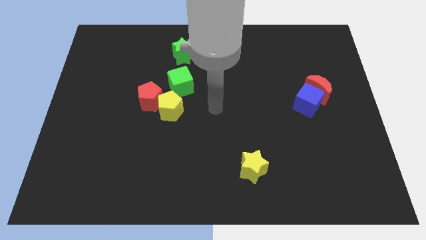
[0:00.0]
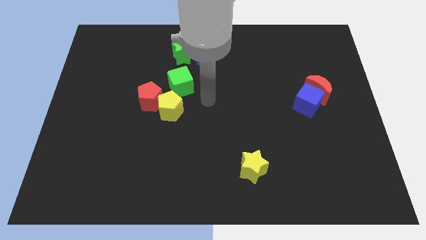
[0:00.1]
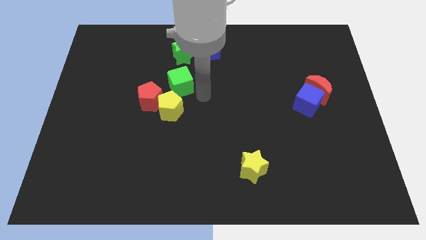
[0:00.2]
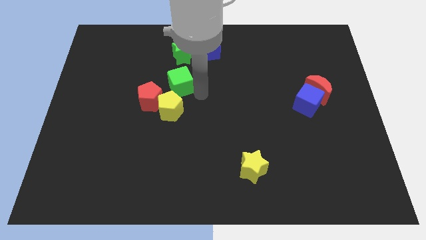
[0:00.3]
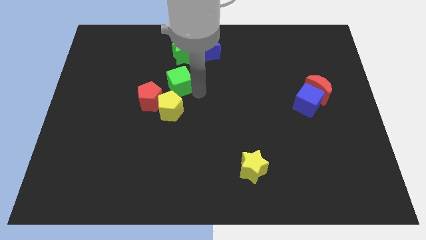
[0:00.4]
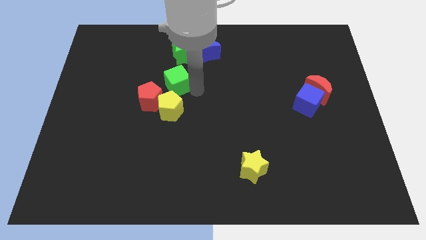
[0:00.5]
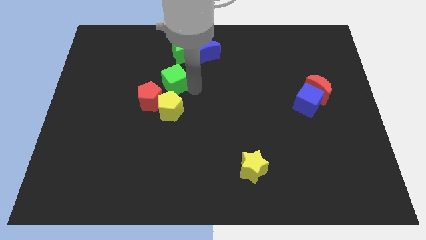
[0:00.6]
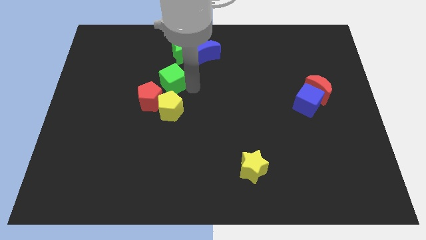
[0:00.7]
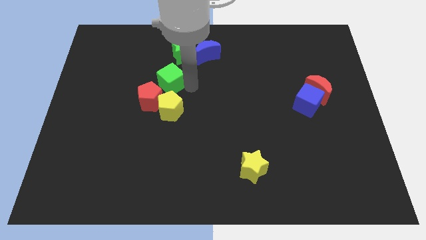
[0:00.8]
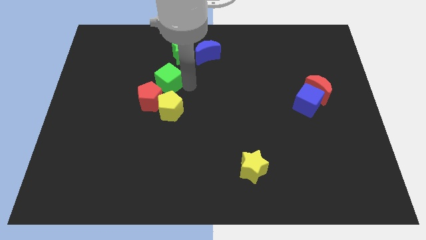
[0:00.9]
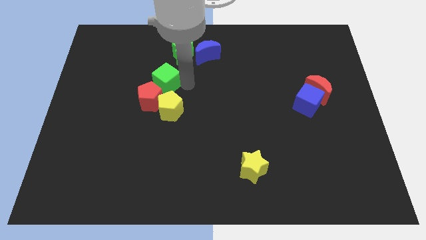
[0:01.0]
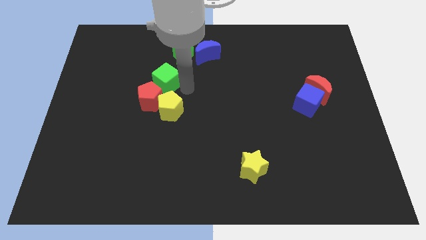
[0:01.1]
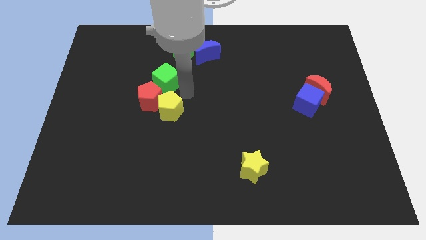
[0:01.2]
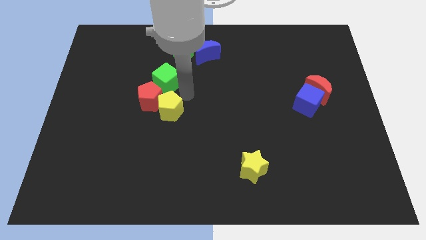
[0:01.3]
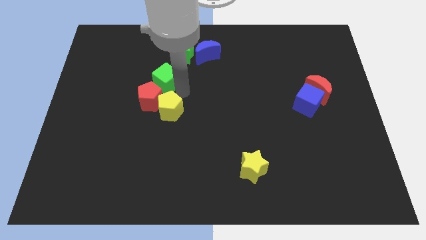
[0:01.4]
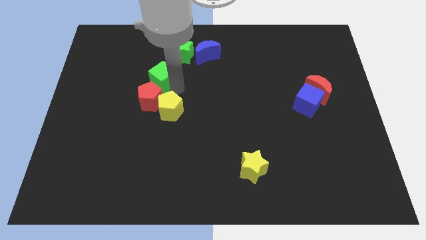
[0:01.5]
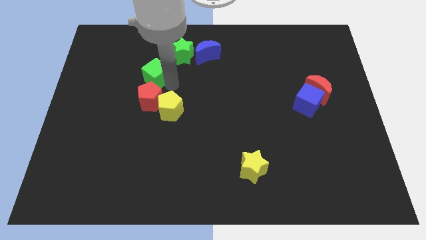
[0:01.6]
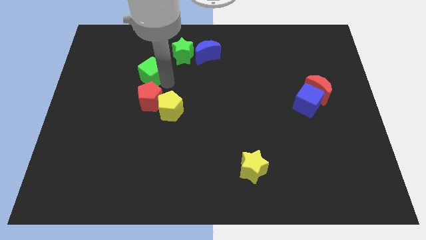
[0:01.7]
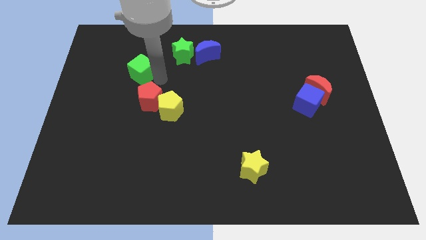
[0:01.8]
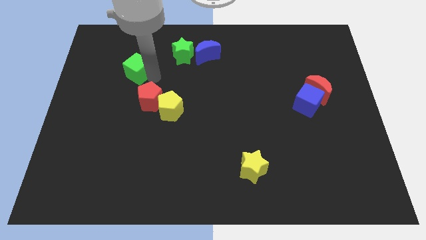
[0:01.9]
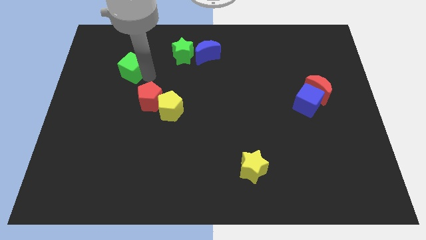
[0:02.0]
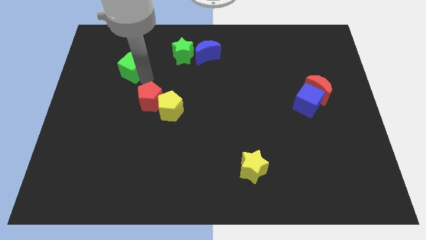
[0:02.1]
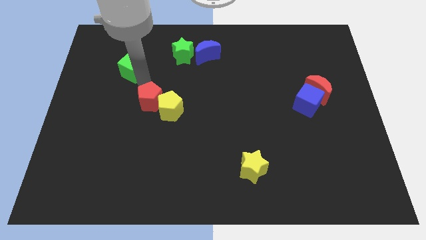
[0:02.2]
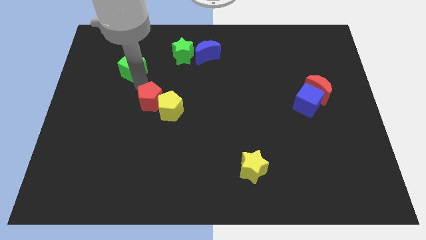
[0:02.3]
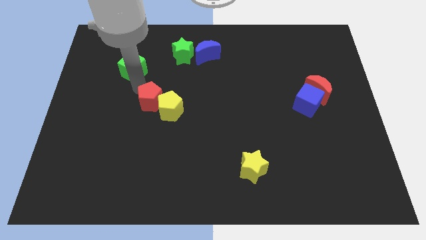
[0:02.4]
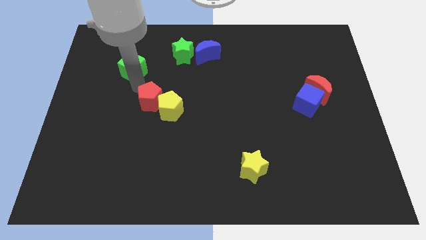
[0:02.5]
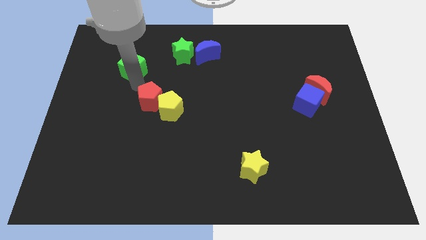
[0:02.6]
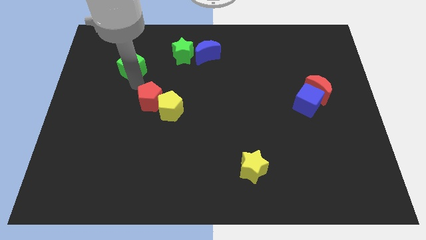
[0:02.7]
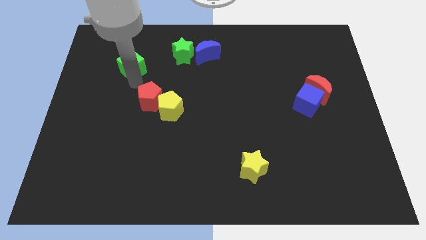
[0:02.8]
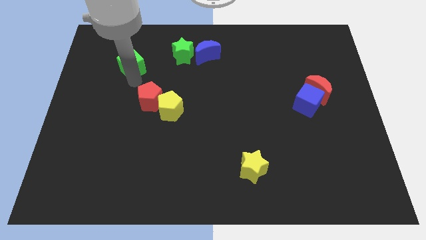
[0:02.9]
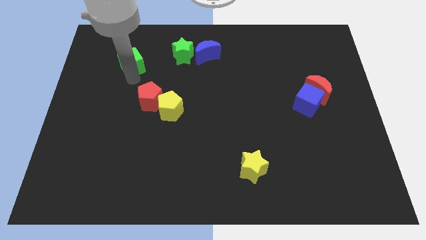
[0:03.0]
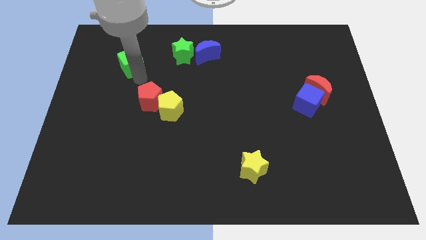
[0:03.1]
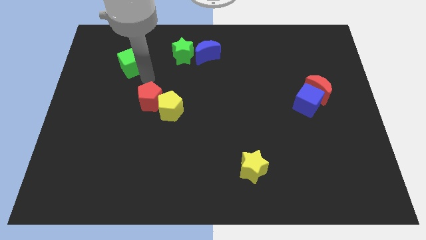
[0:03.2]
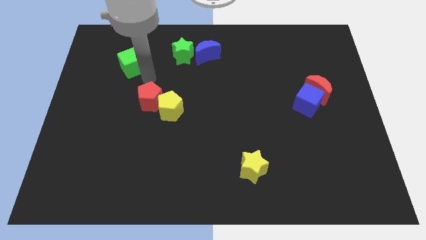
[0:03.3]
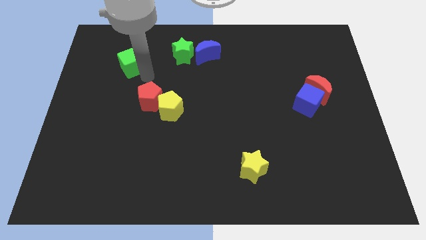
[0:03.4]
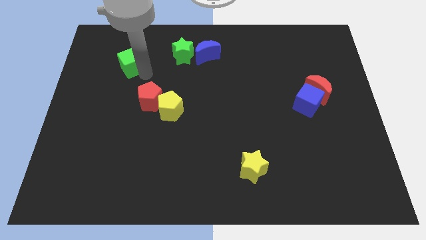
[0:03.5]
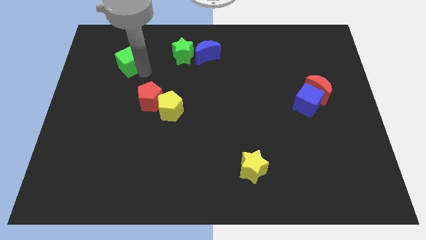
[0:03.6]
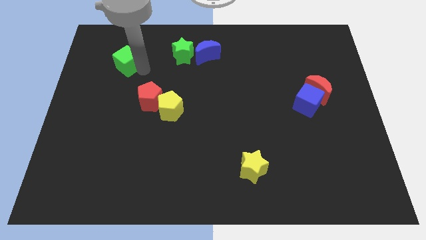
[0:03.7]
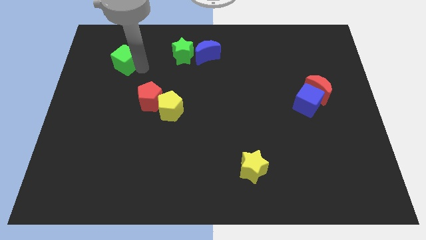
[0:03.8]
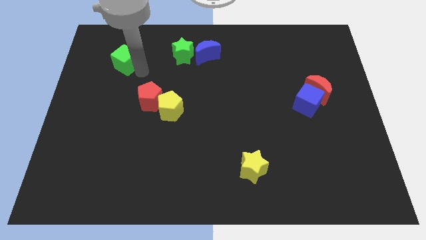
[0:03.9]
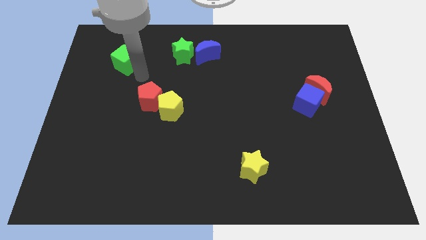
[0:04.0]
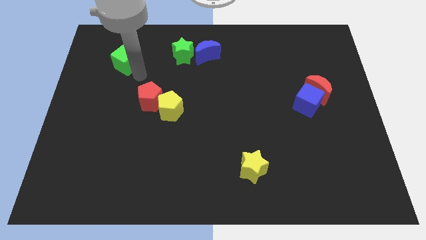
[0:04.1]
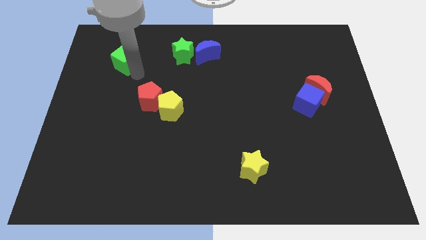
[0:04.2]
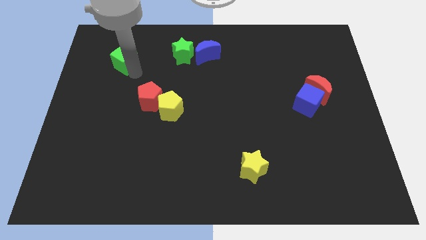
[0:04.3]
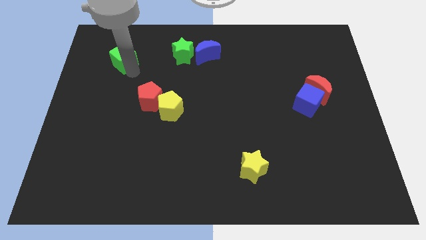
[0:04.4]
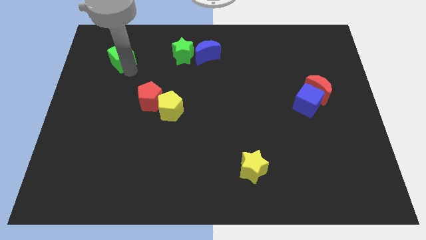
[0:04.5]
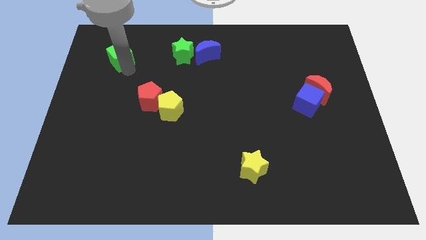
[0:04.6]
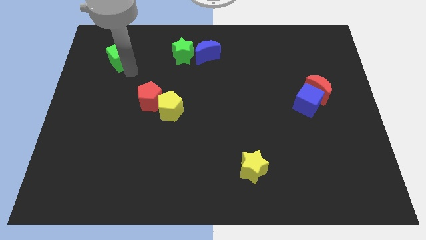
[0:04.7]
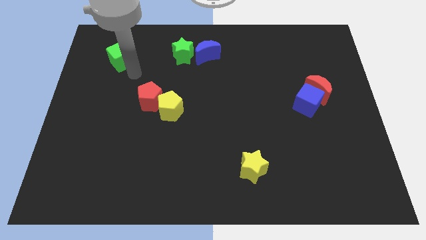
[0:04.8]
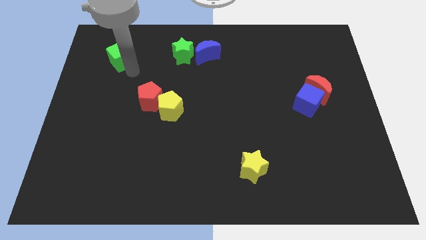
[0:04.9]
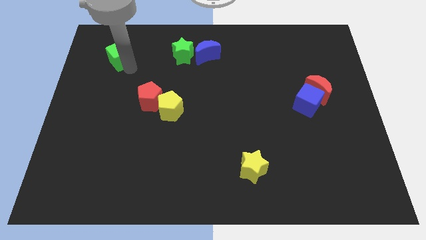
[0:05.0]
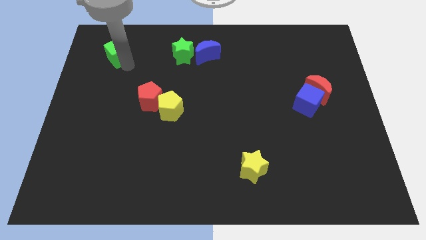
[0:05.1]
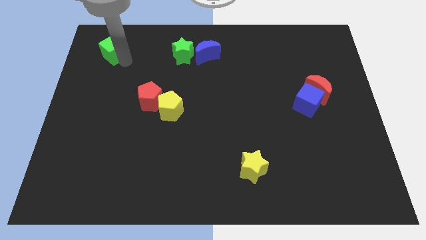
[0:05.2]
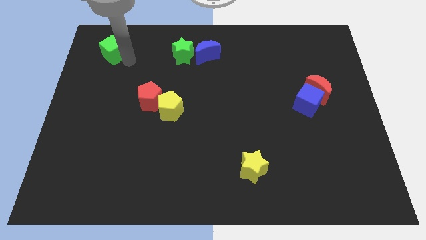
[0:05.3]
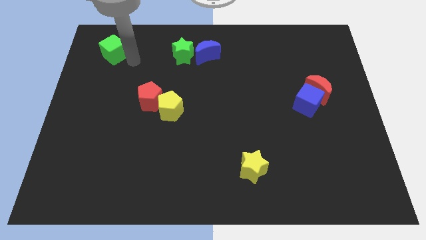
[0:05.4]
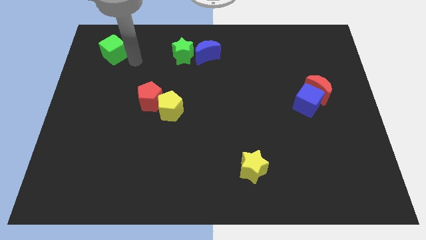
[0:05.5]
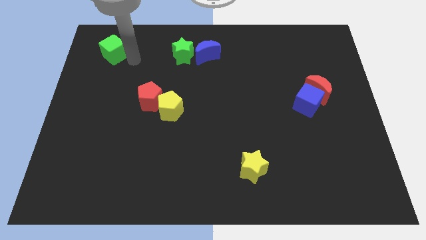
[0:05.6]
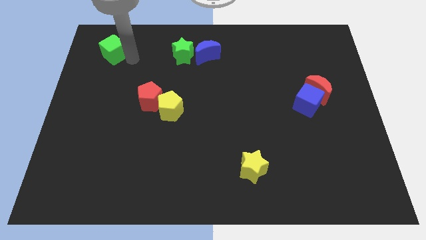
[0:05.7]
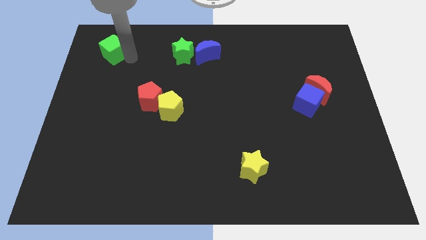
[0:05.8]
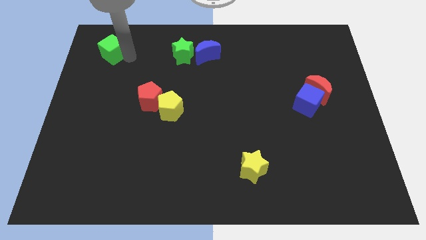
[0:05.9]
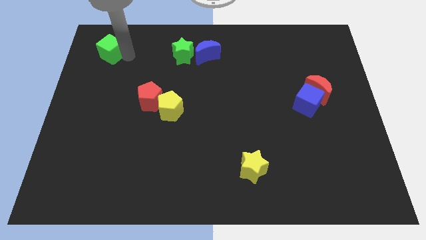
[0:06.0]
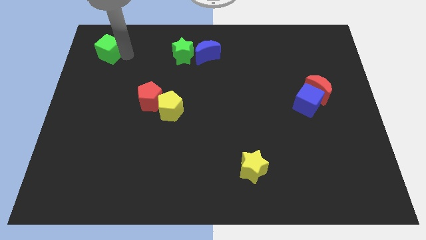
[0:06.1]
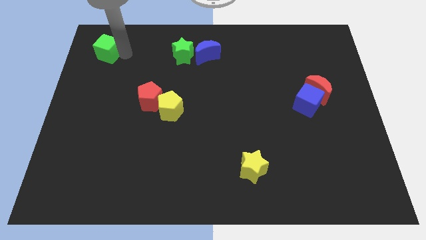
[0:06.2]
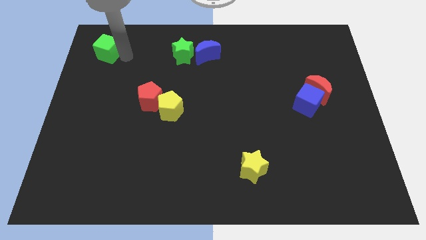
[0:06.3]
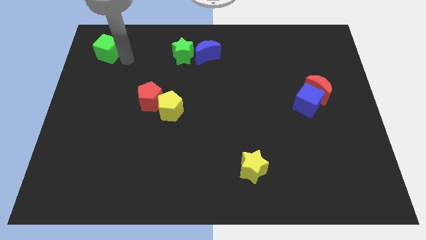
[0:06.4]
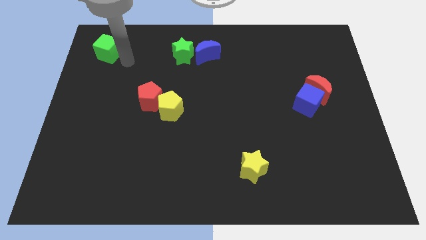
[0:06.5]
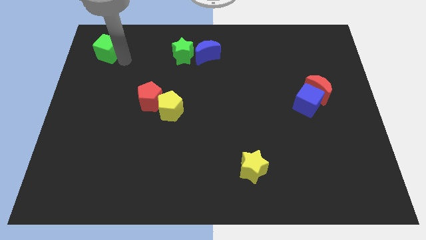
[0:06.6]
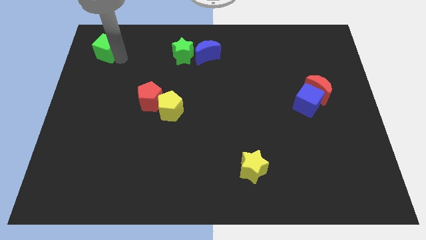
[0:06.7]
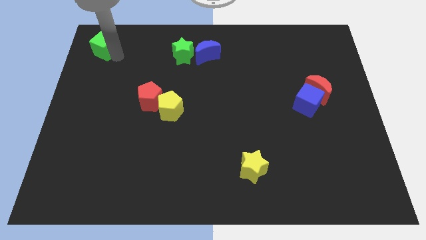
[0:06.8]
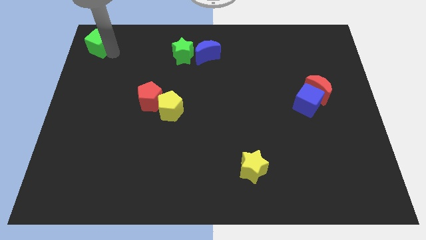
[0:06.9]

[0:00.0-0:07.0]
push the green cube to the top left of the board
